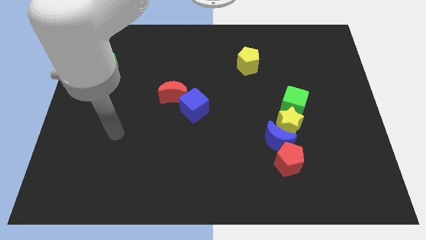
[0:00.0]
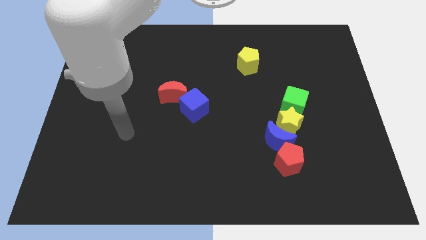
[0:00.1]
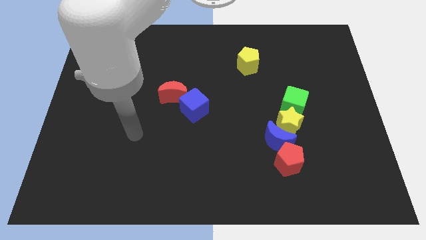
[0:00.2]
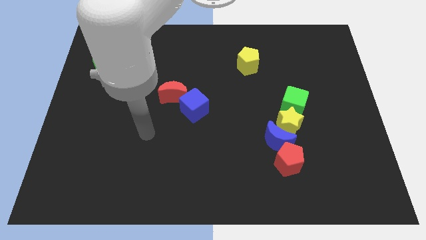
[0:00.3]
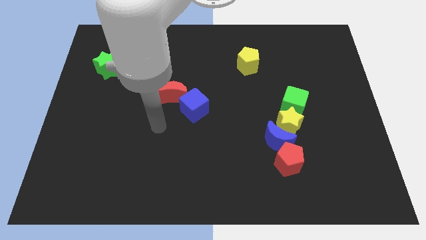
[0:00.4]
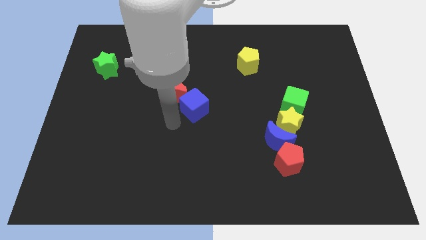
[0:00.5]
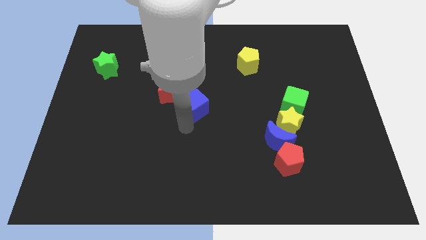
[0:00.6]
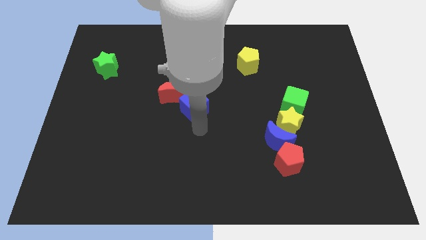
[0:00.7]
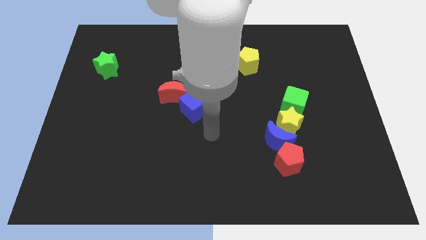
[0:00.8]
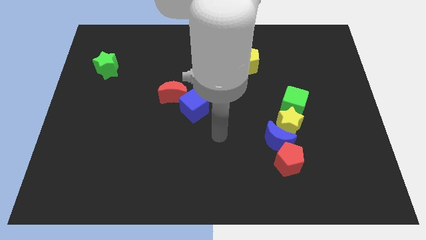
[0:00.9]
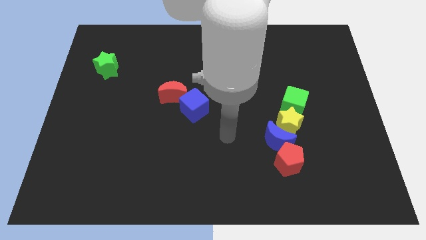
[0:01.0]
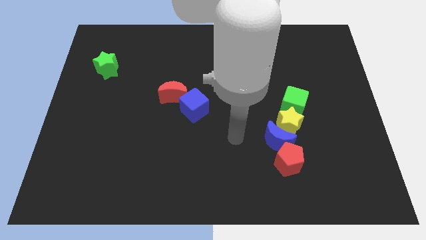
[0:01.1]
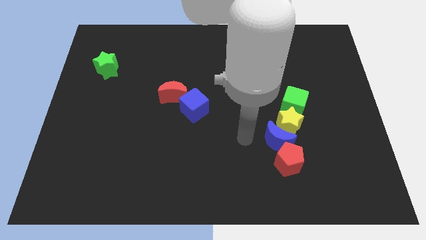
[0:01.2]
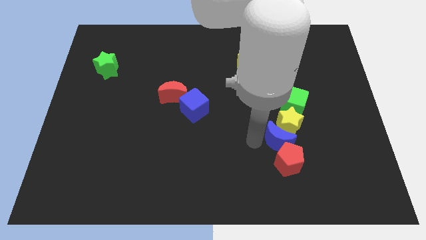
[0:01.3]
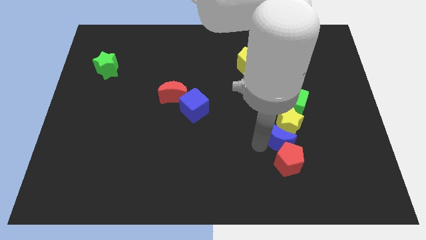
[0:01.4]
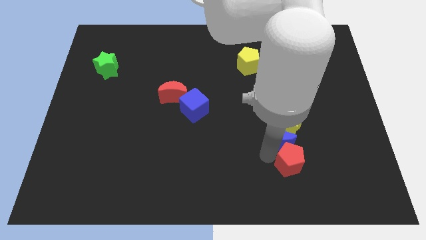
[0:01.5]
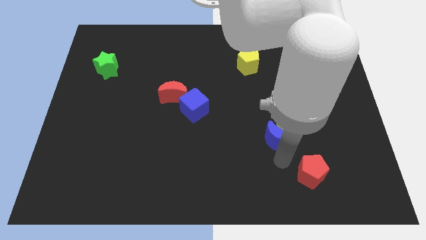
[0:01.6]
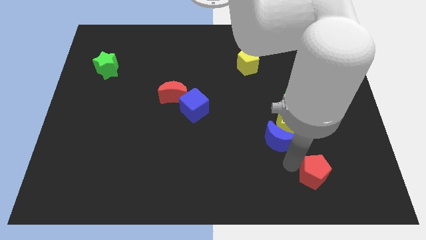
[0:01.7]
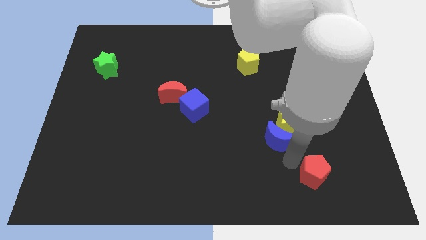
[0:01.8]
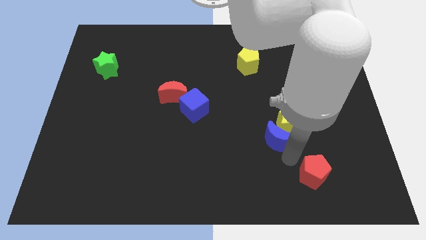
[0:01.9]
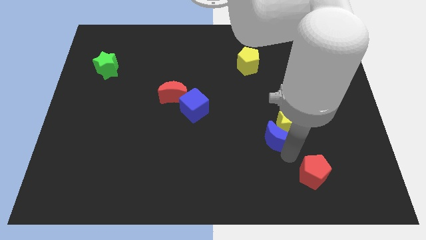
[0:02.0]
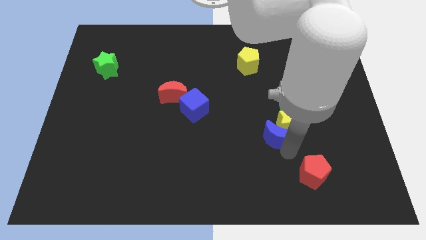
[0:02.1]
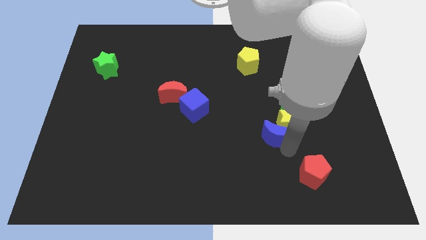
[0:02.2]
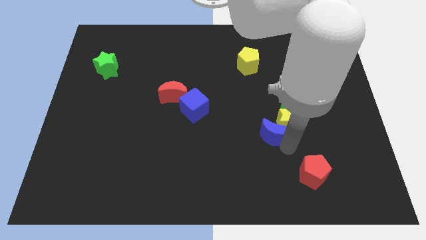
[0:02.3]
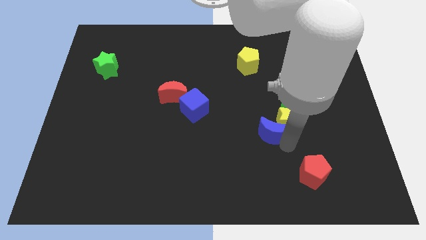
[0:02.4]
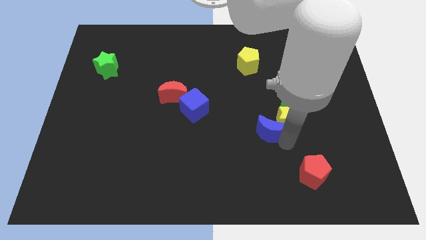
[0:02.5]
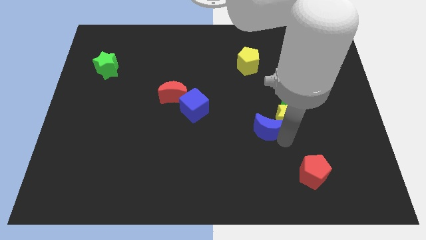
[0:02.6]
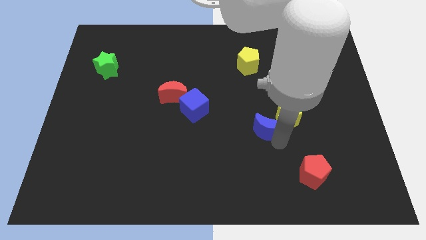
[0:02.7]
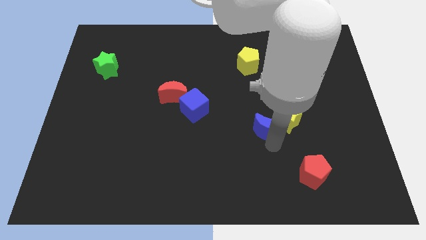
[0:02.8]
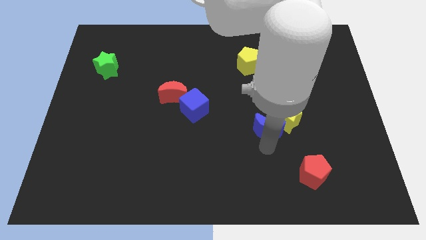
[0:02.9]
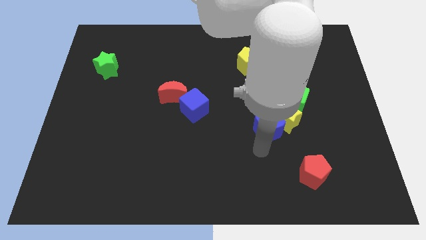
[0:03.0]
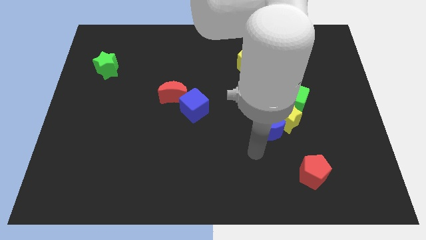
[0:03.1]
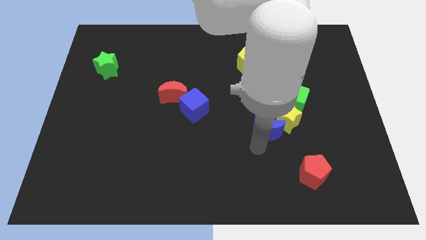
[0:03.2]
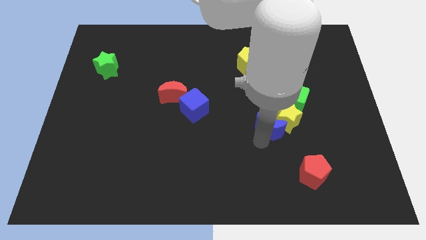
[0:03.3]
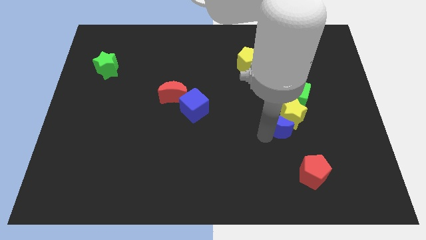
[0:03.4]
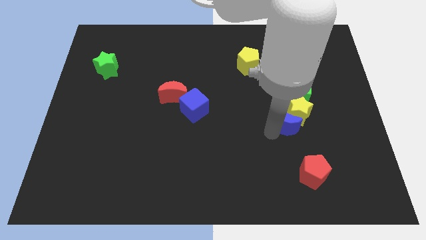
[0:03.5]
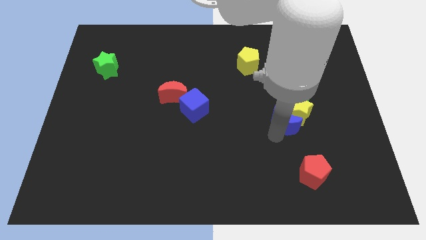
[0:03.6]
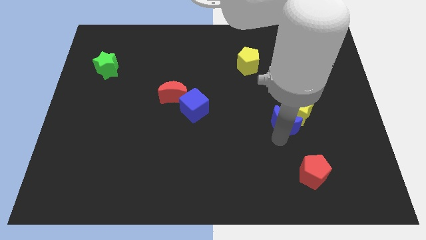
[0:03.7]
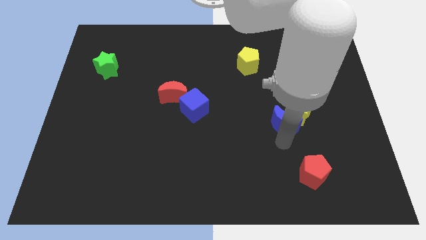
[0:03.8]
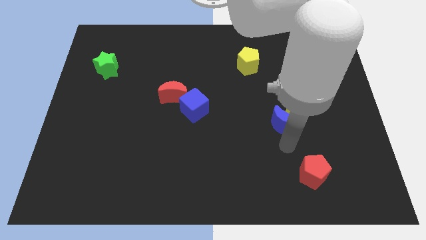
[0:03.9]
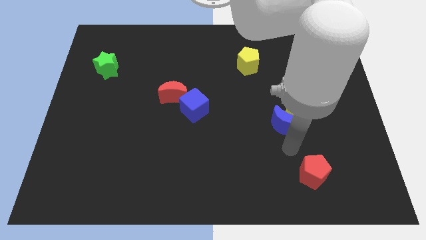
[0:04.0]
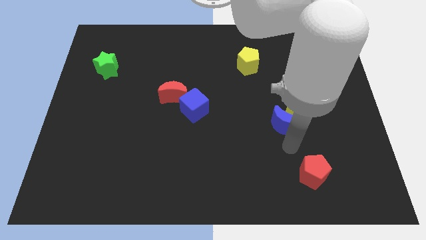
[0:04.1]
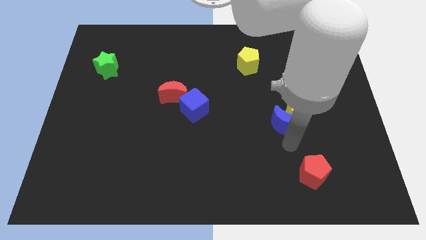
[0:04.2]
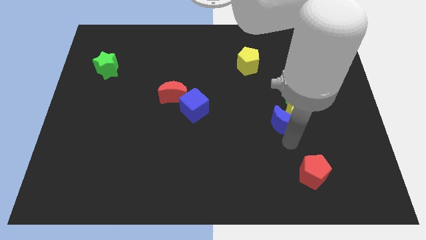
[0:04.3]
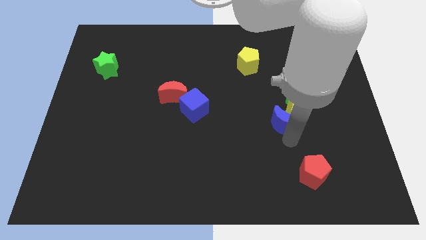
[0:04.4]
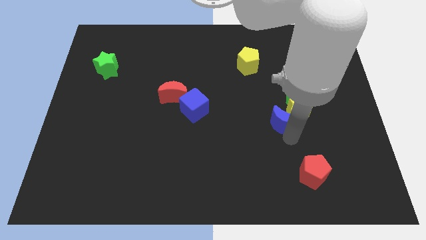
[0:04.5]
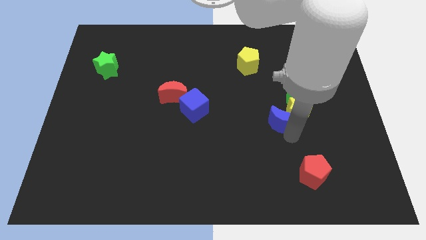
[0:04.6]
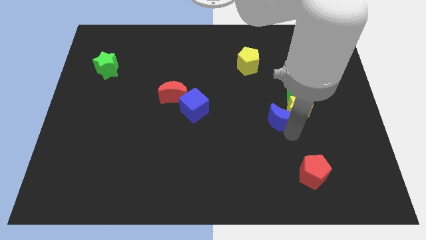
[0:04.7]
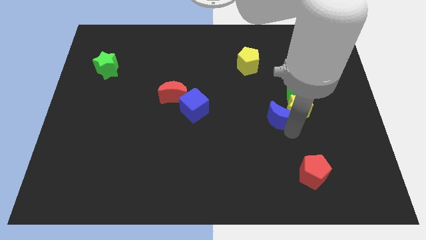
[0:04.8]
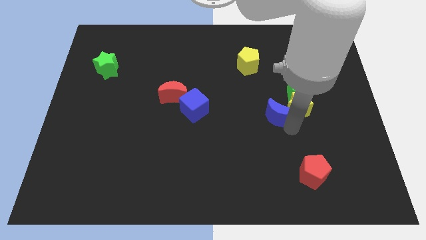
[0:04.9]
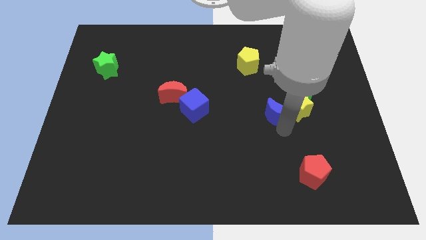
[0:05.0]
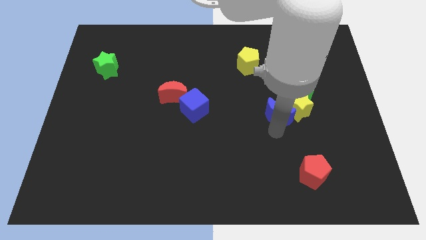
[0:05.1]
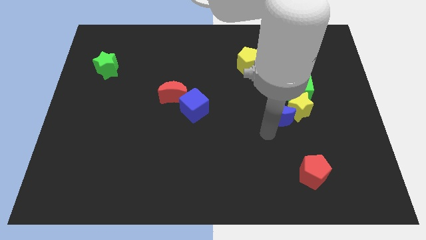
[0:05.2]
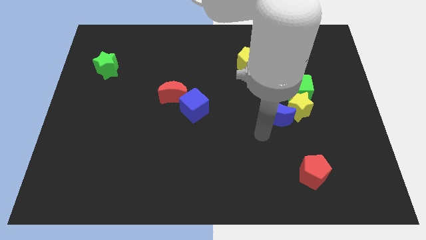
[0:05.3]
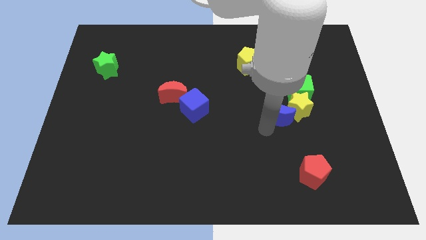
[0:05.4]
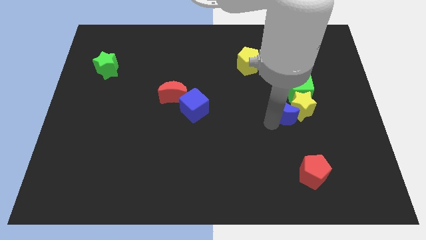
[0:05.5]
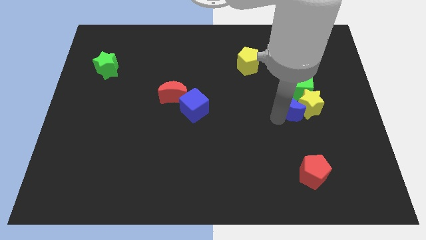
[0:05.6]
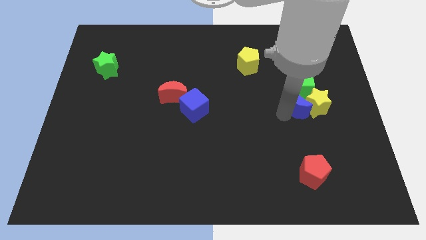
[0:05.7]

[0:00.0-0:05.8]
push the blue moon next to the green cube

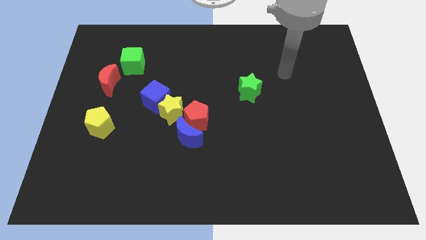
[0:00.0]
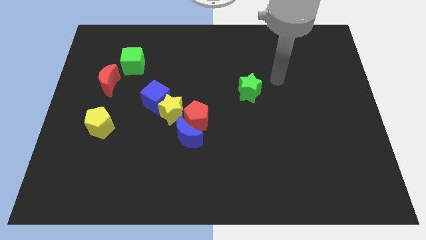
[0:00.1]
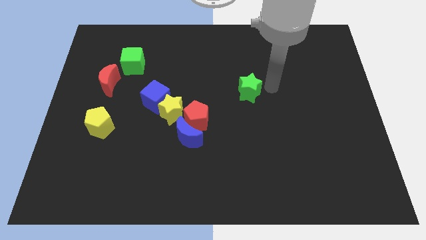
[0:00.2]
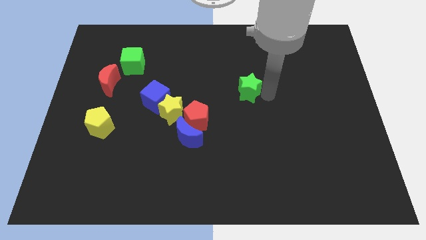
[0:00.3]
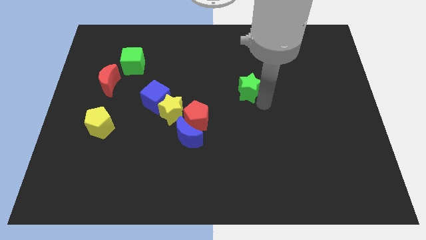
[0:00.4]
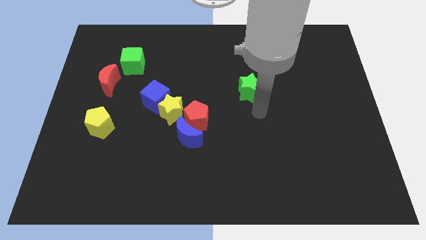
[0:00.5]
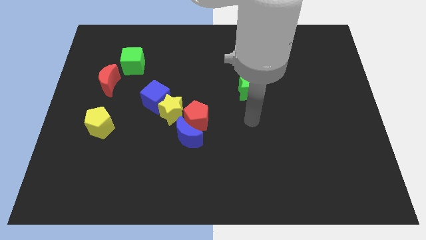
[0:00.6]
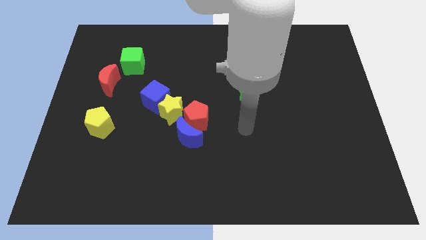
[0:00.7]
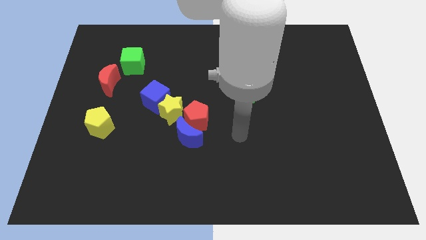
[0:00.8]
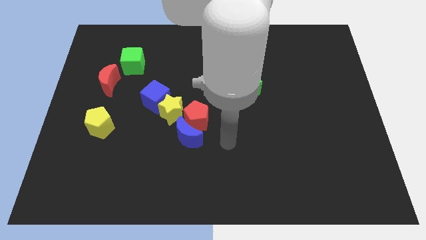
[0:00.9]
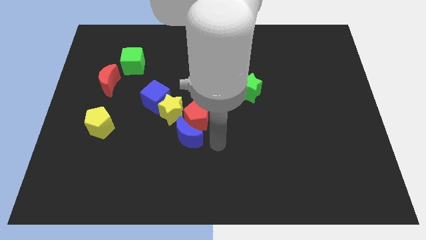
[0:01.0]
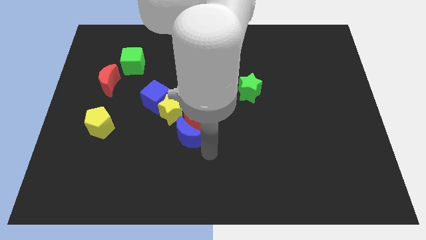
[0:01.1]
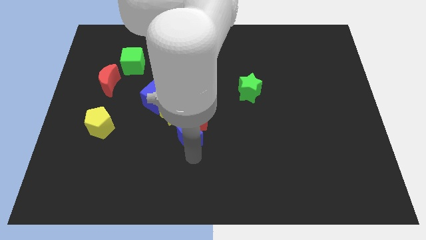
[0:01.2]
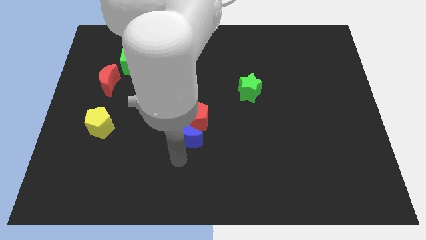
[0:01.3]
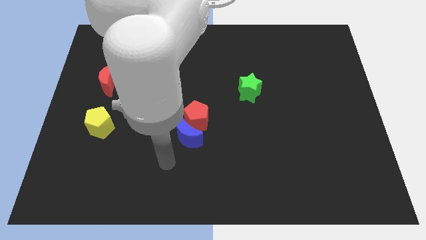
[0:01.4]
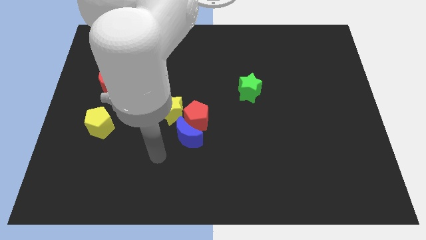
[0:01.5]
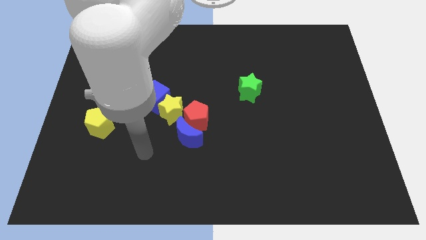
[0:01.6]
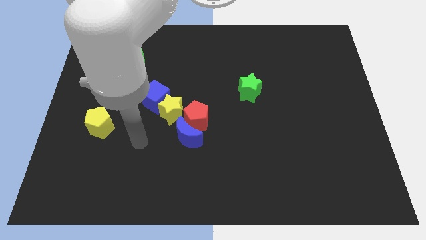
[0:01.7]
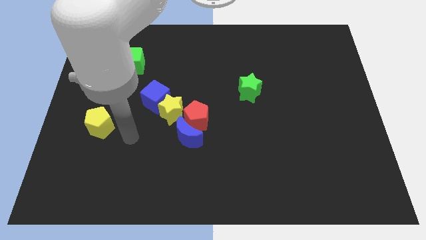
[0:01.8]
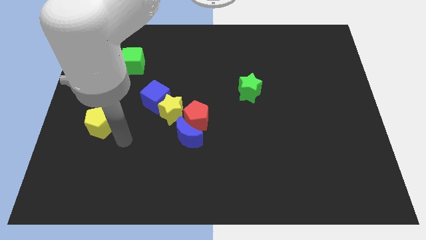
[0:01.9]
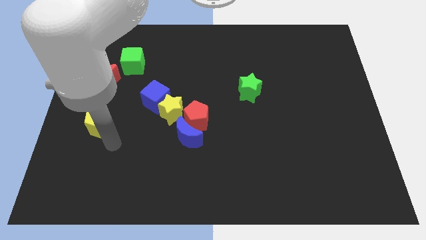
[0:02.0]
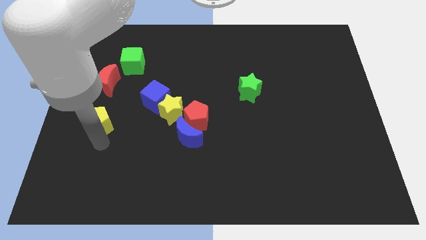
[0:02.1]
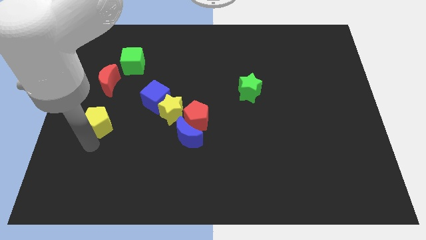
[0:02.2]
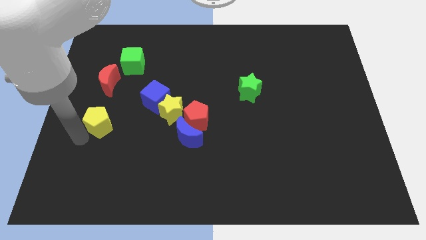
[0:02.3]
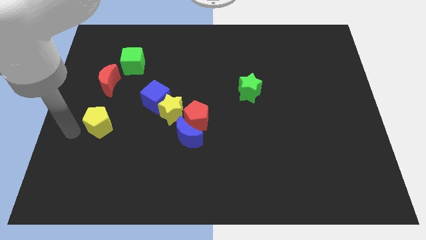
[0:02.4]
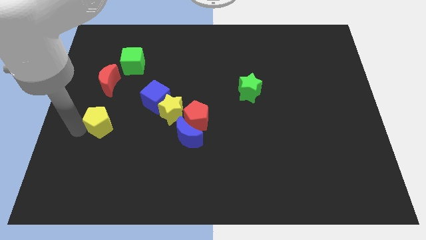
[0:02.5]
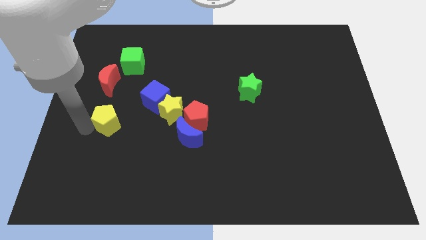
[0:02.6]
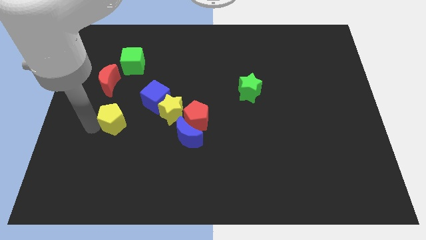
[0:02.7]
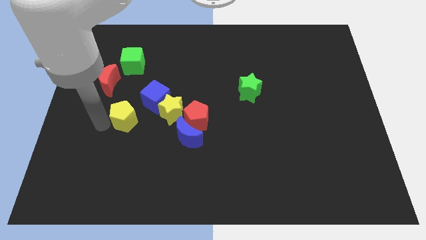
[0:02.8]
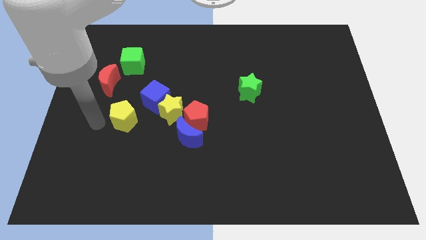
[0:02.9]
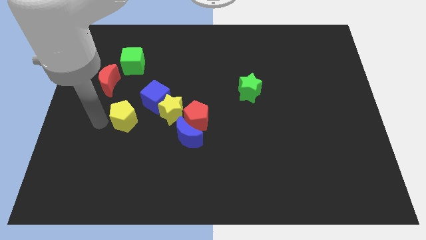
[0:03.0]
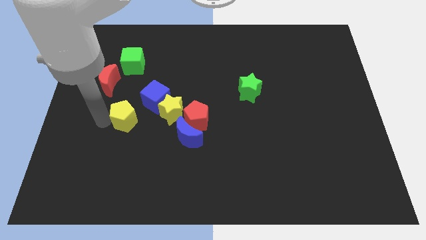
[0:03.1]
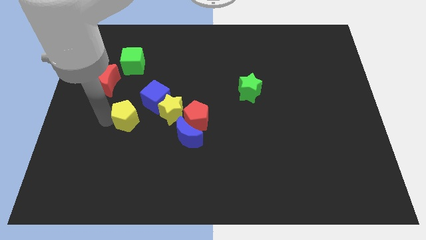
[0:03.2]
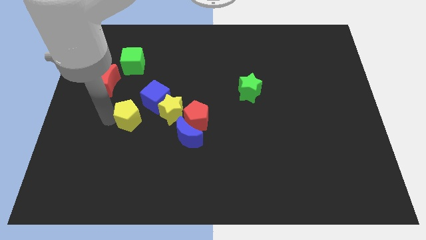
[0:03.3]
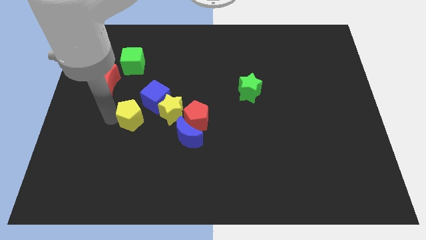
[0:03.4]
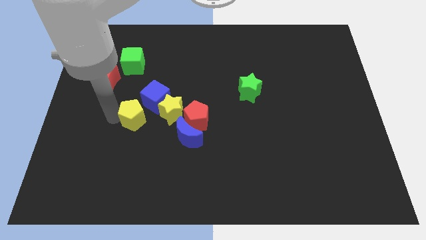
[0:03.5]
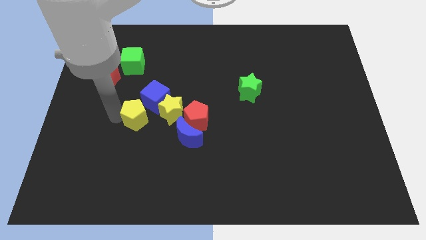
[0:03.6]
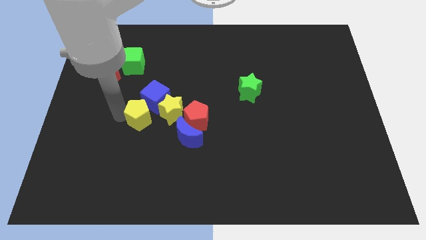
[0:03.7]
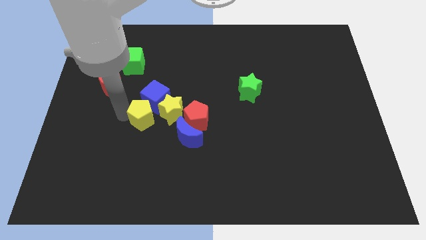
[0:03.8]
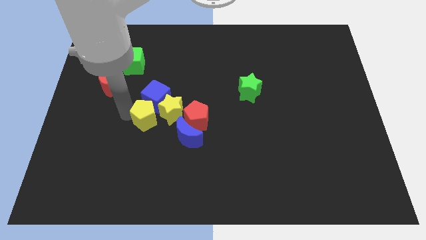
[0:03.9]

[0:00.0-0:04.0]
push the yellow pentagon close to the yellow star
